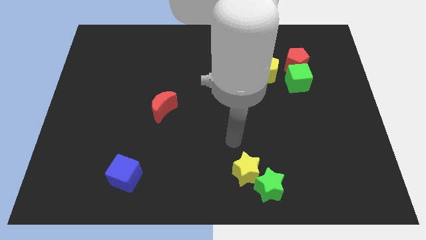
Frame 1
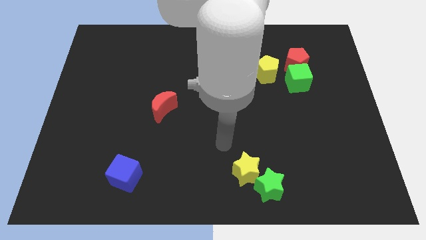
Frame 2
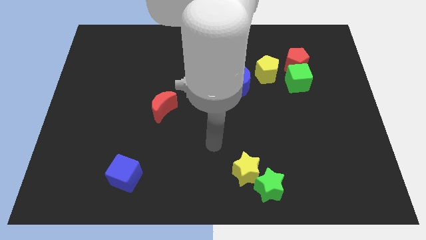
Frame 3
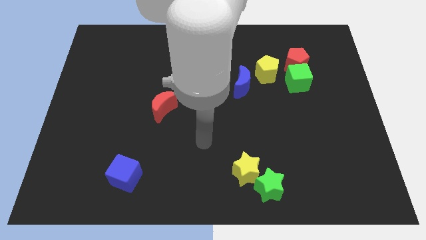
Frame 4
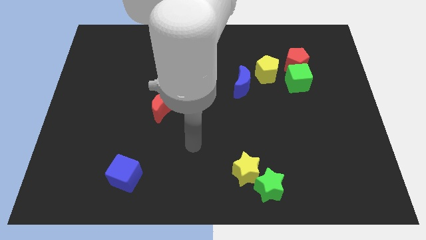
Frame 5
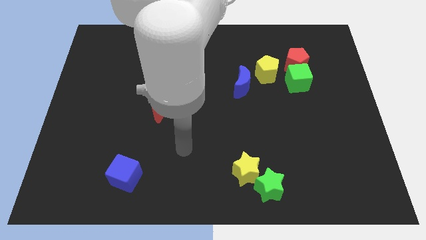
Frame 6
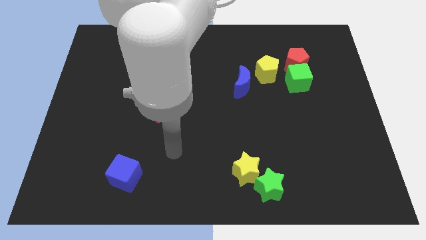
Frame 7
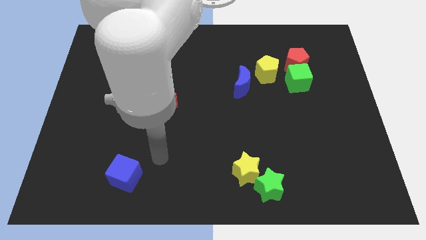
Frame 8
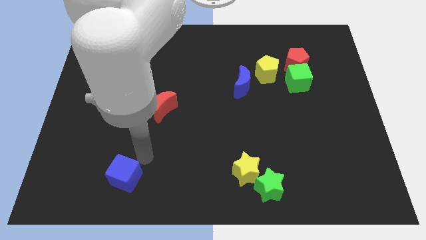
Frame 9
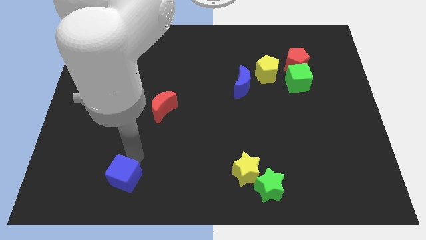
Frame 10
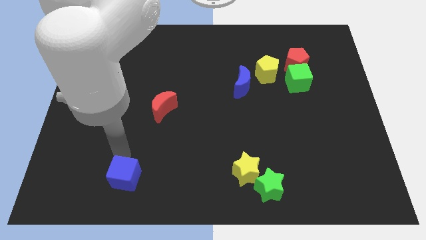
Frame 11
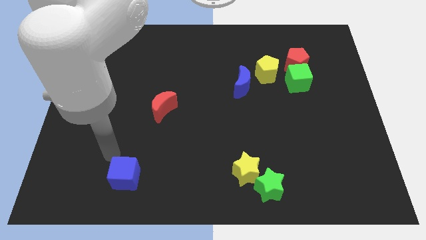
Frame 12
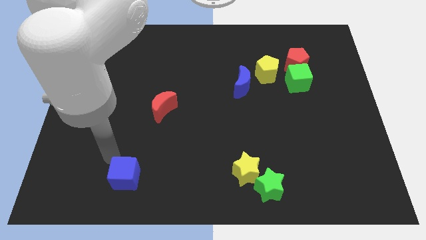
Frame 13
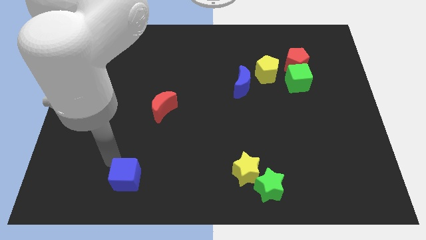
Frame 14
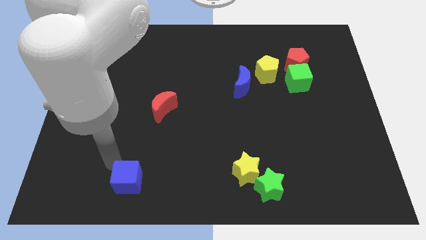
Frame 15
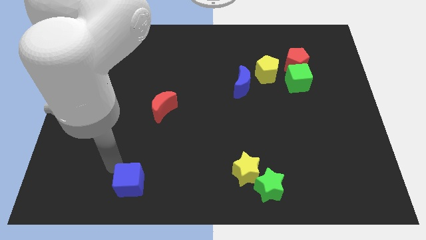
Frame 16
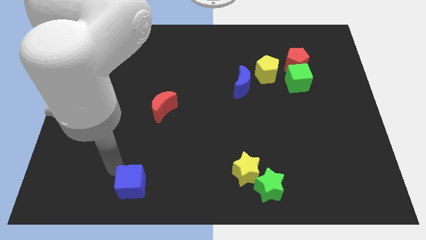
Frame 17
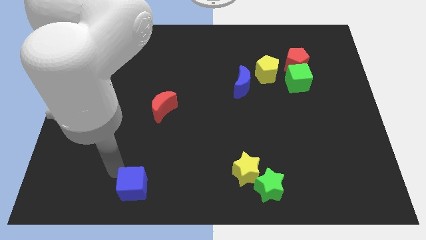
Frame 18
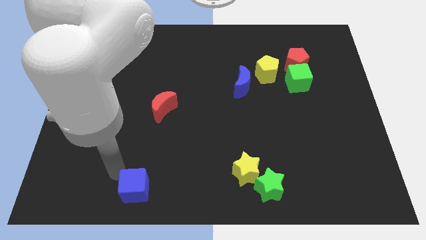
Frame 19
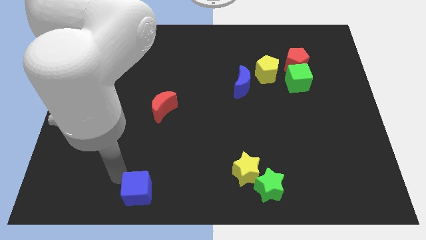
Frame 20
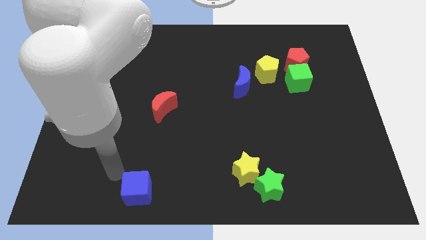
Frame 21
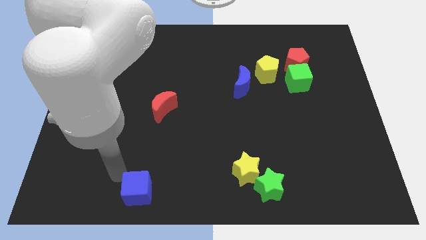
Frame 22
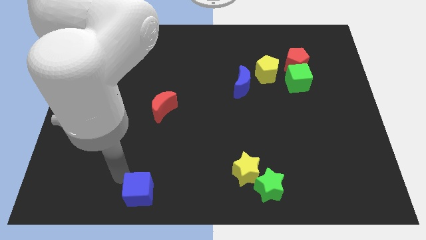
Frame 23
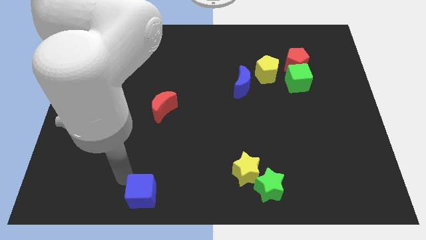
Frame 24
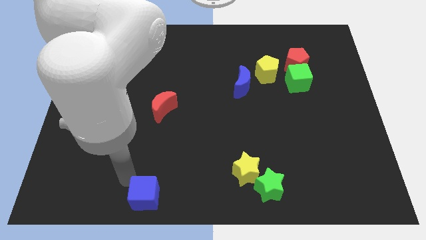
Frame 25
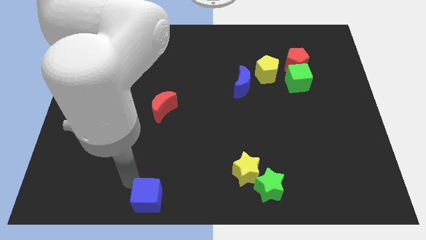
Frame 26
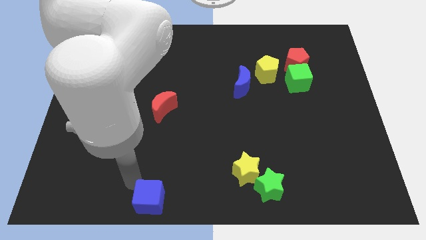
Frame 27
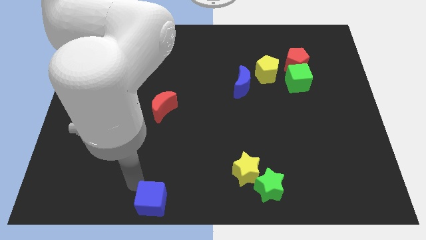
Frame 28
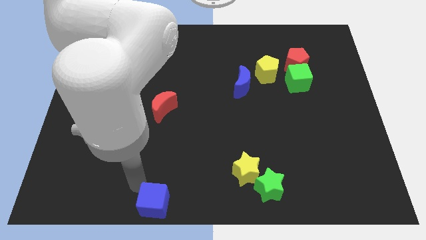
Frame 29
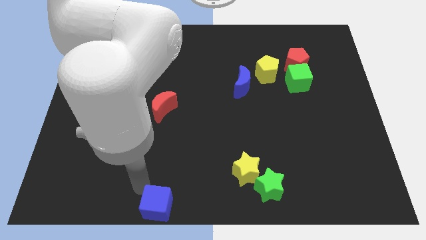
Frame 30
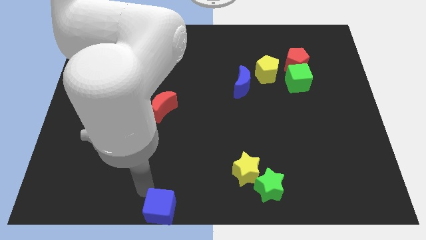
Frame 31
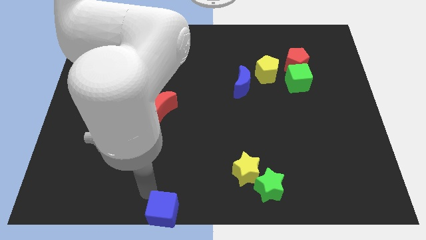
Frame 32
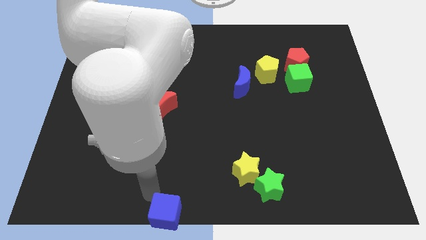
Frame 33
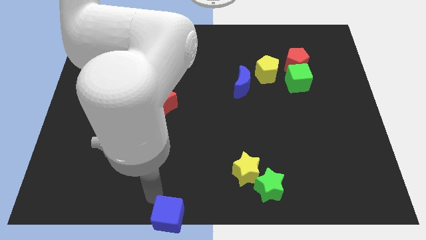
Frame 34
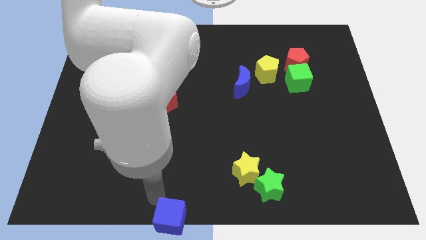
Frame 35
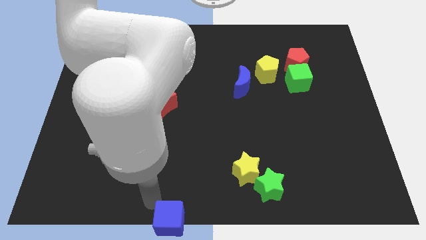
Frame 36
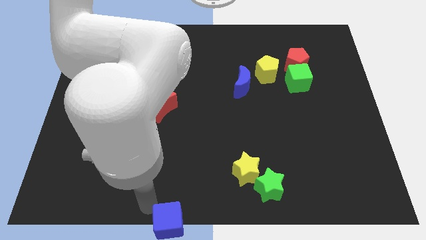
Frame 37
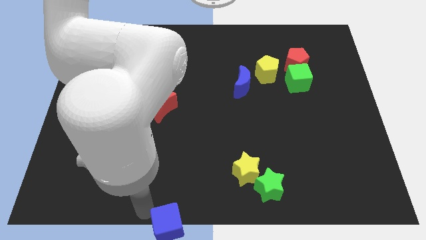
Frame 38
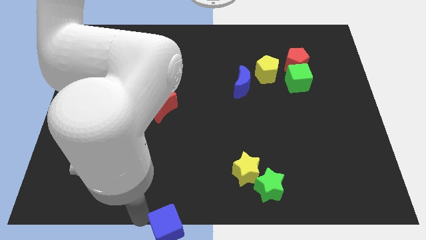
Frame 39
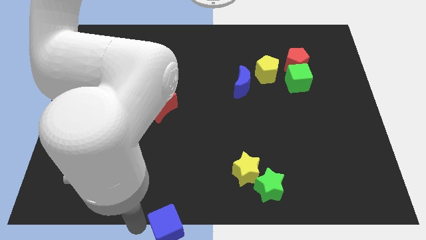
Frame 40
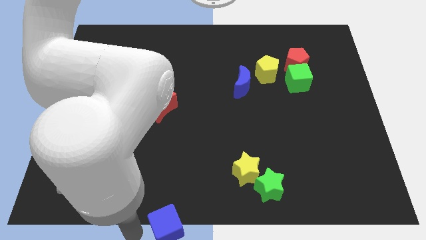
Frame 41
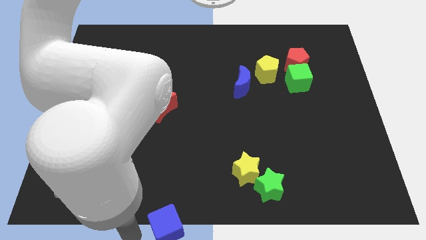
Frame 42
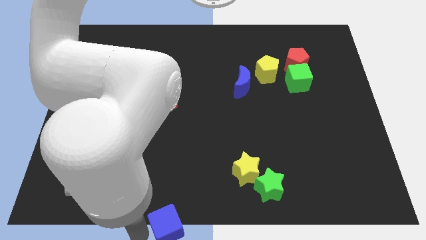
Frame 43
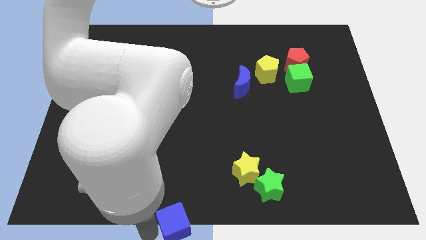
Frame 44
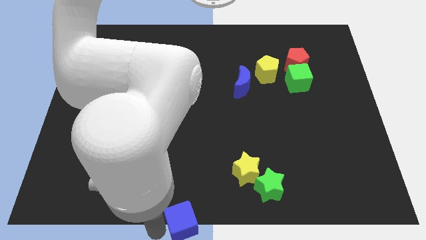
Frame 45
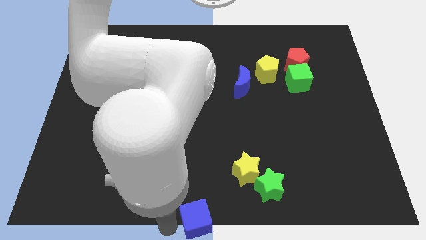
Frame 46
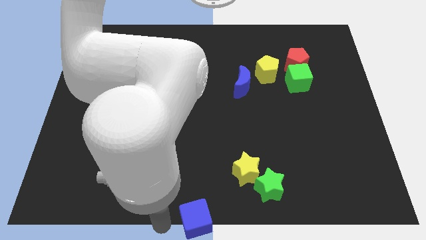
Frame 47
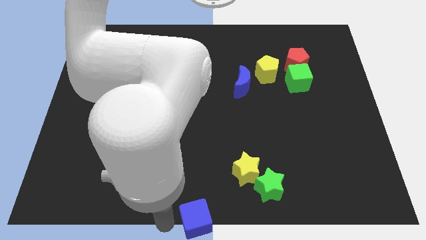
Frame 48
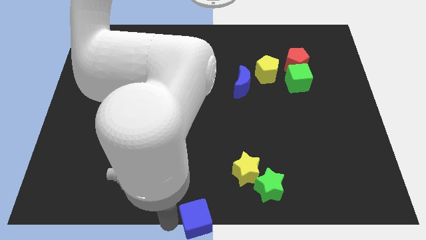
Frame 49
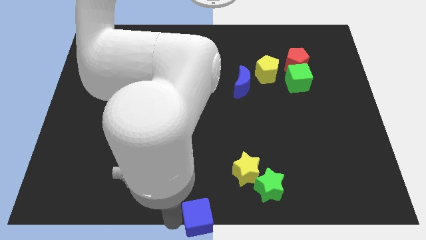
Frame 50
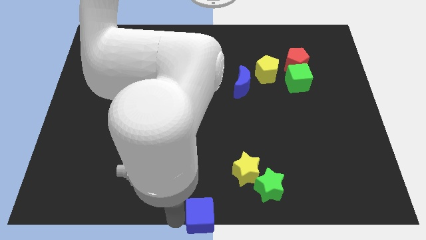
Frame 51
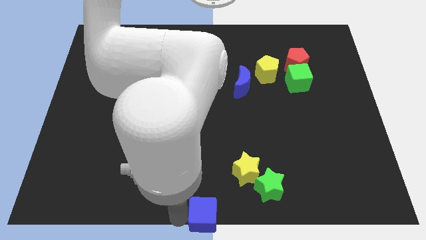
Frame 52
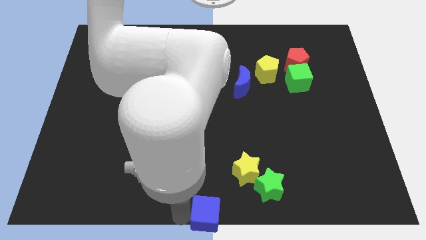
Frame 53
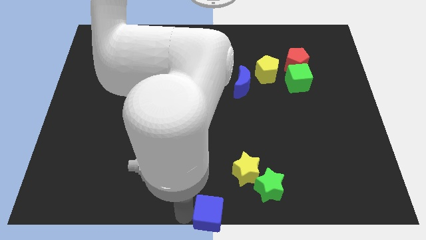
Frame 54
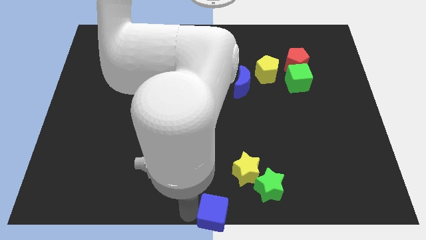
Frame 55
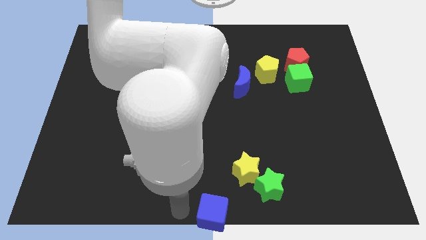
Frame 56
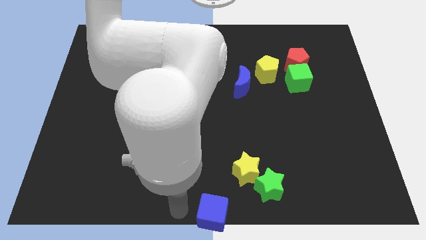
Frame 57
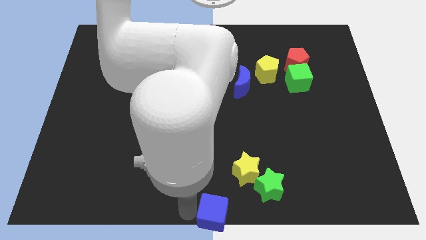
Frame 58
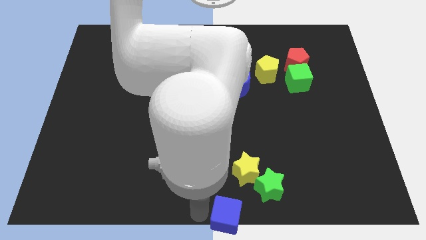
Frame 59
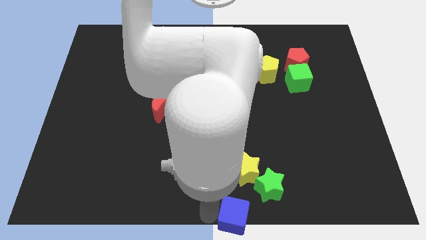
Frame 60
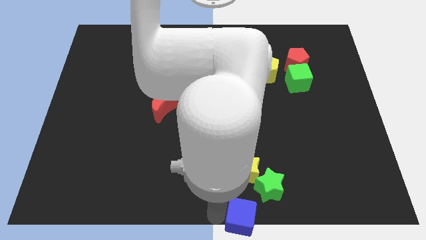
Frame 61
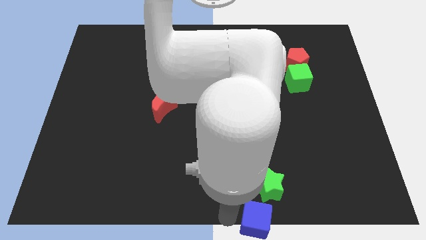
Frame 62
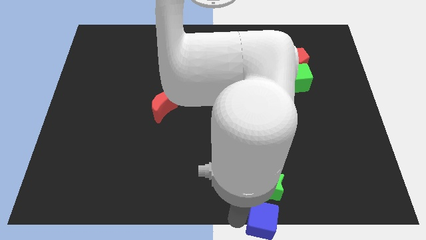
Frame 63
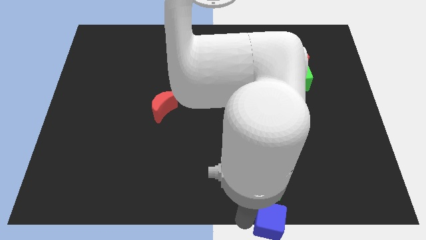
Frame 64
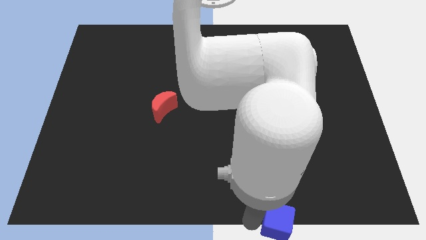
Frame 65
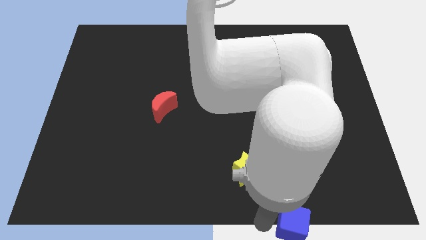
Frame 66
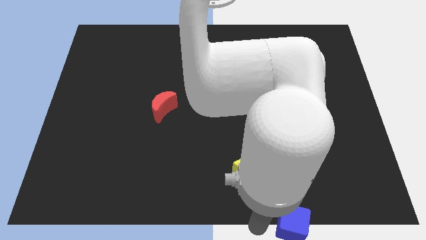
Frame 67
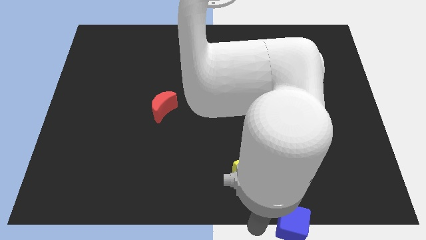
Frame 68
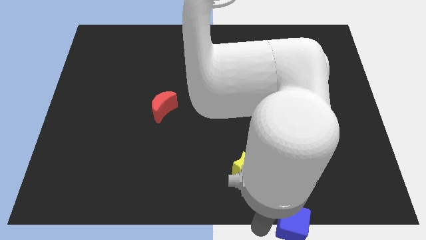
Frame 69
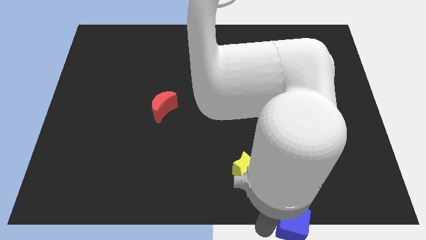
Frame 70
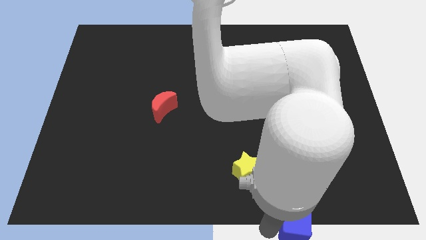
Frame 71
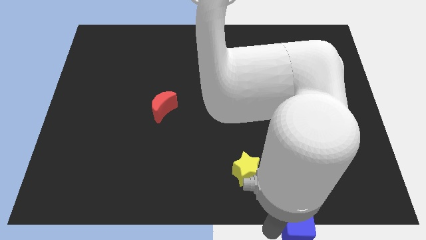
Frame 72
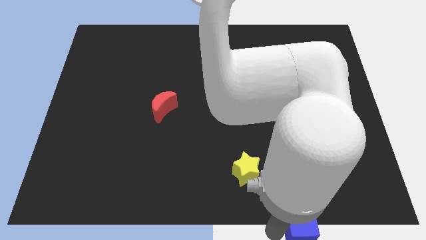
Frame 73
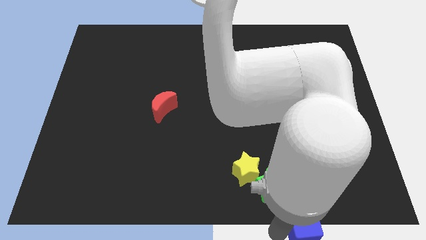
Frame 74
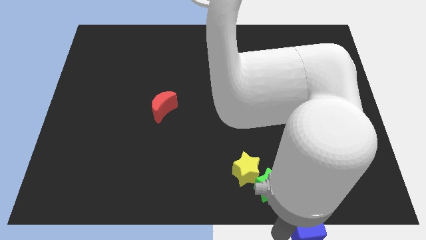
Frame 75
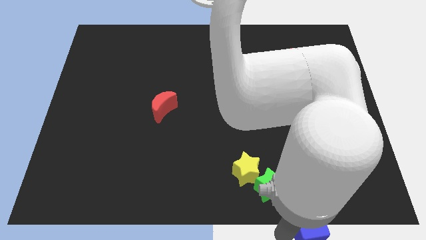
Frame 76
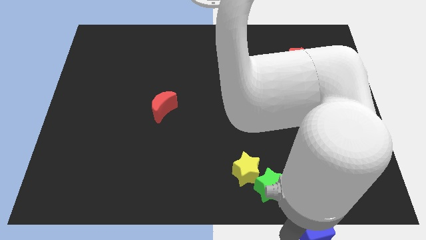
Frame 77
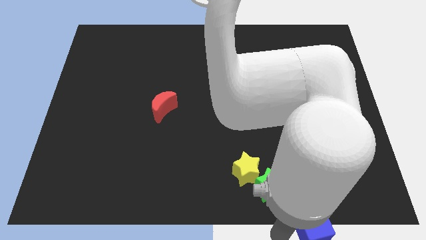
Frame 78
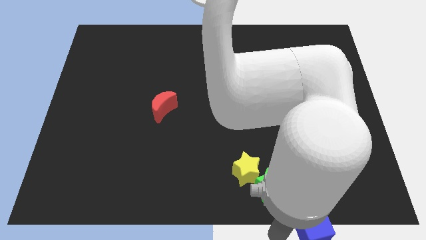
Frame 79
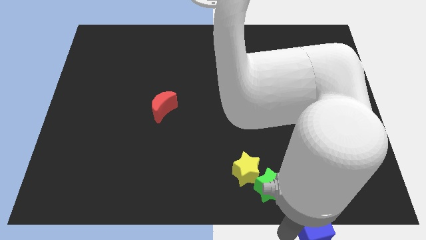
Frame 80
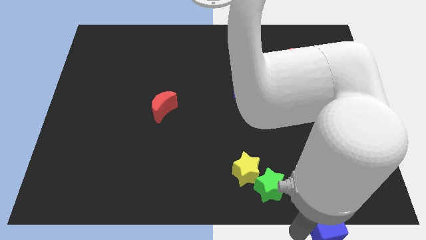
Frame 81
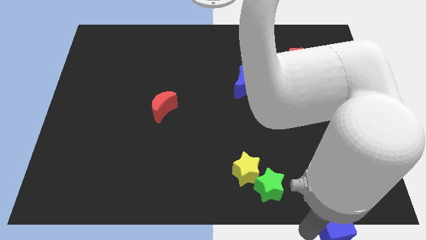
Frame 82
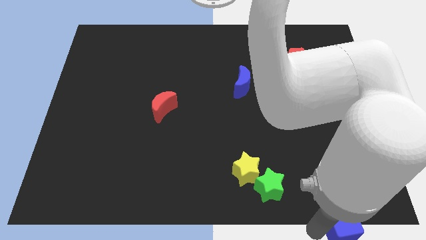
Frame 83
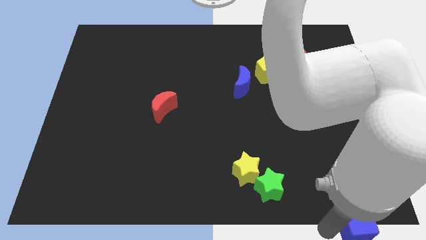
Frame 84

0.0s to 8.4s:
move the blue cube to the bottom right of the board
